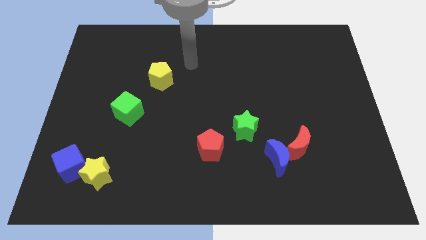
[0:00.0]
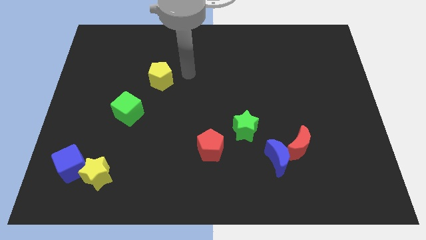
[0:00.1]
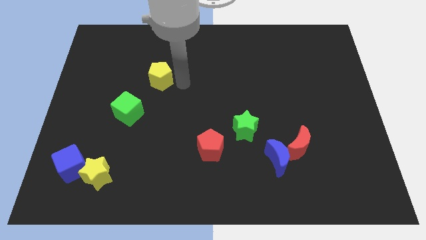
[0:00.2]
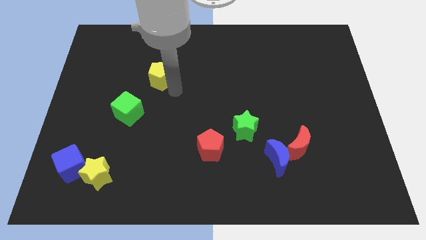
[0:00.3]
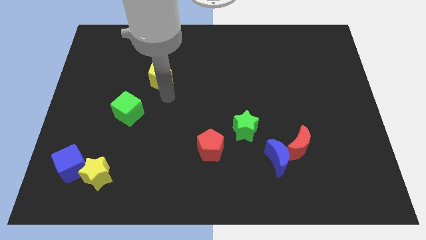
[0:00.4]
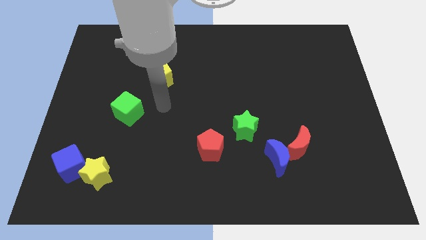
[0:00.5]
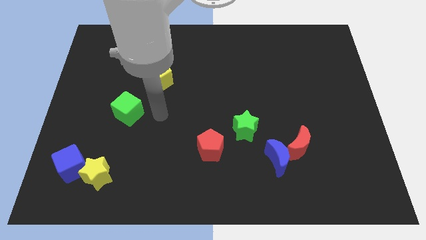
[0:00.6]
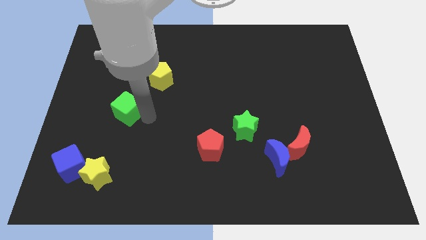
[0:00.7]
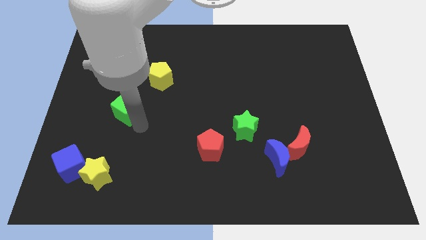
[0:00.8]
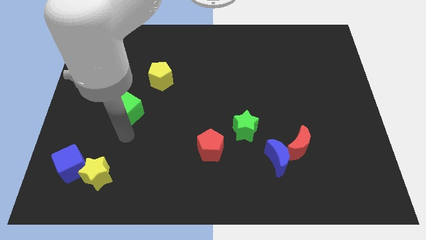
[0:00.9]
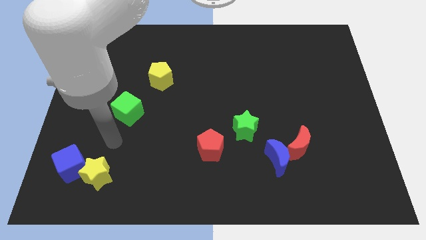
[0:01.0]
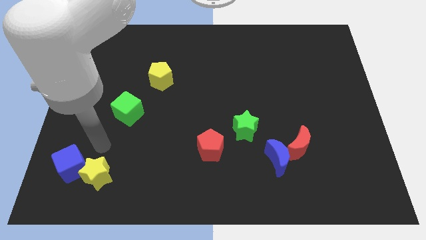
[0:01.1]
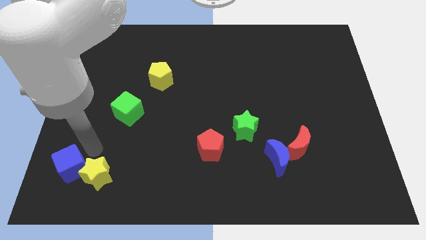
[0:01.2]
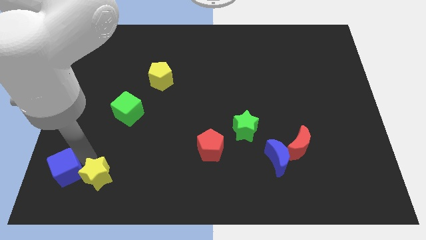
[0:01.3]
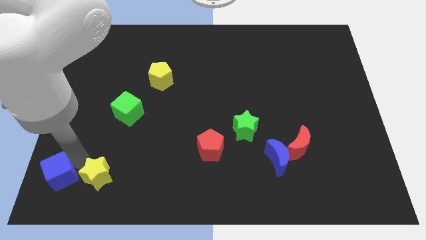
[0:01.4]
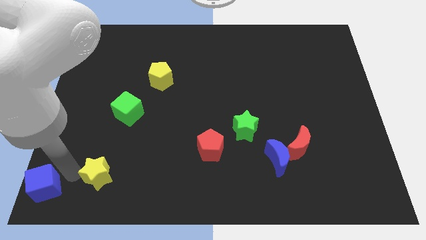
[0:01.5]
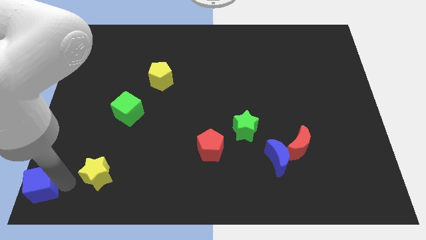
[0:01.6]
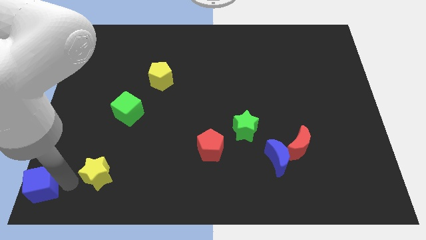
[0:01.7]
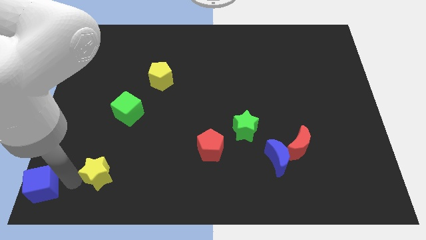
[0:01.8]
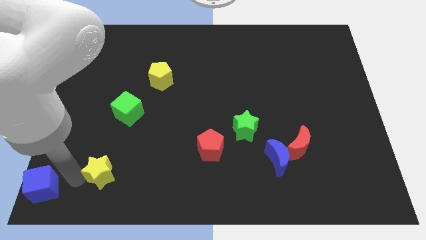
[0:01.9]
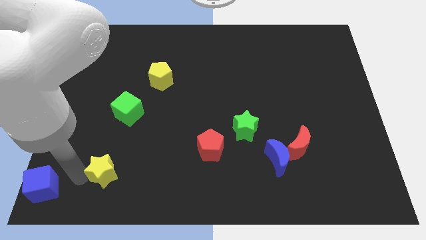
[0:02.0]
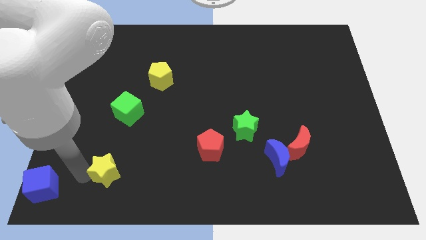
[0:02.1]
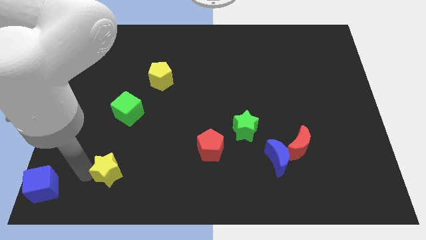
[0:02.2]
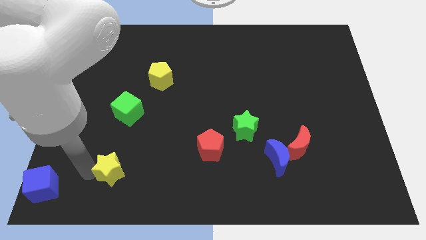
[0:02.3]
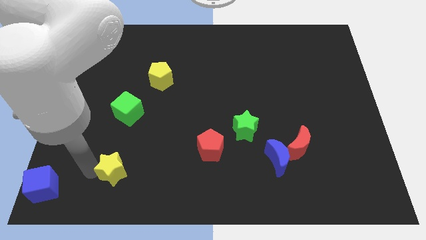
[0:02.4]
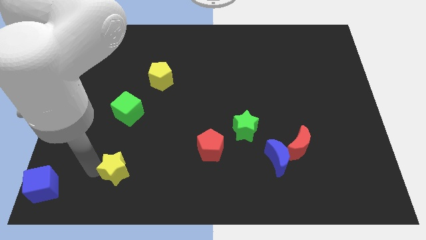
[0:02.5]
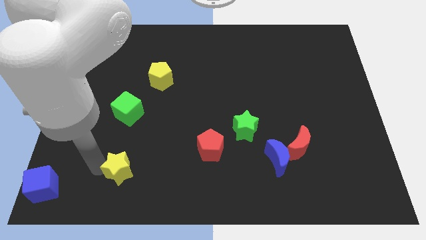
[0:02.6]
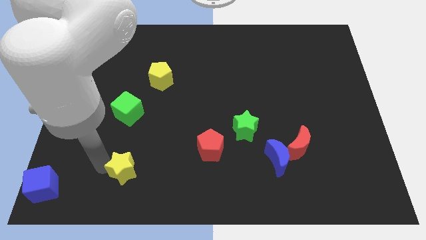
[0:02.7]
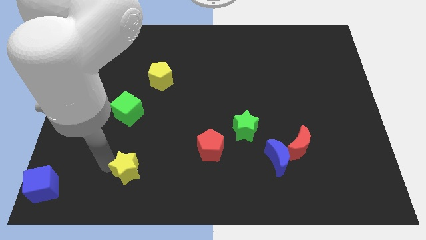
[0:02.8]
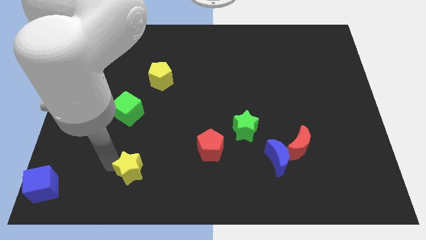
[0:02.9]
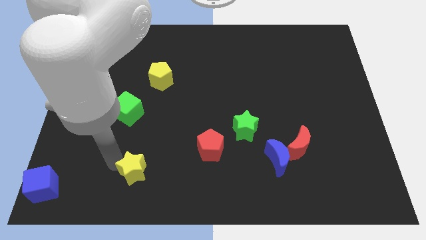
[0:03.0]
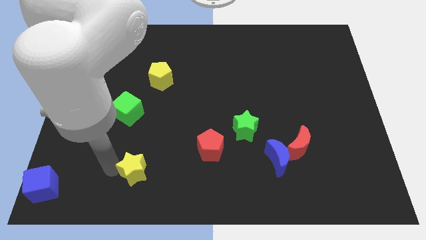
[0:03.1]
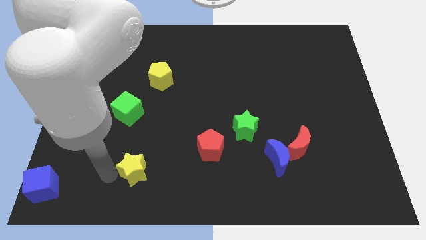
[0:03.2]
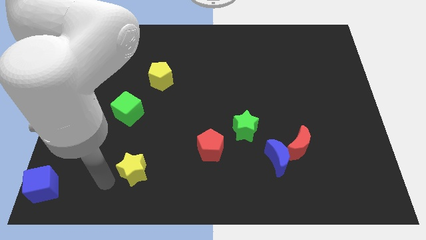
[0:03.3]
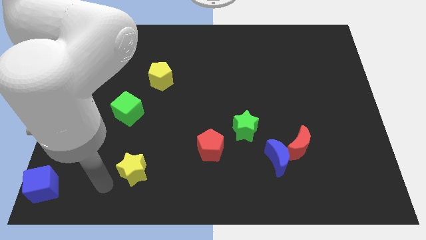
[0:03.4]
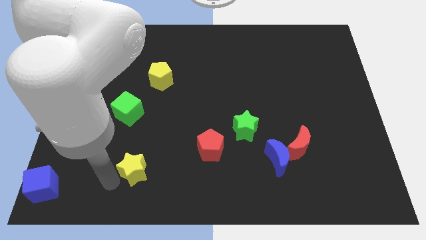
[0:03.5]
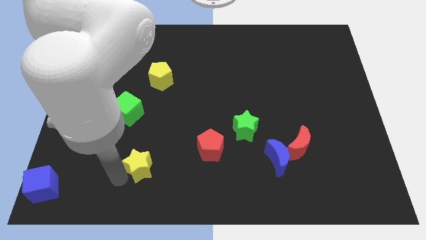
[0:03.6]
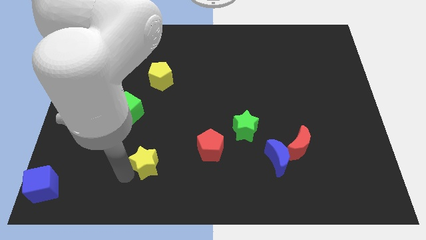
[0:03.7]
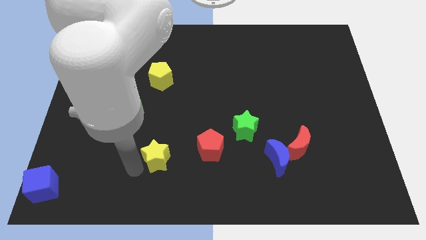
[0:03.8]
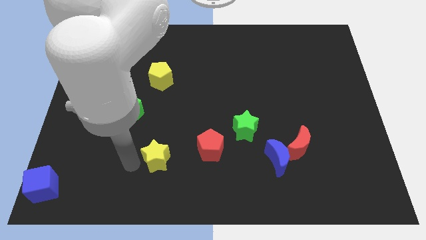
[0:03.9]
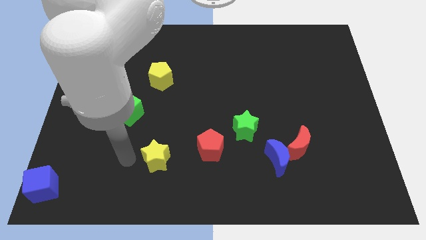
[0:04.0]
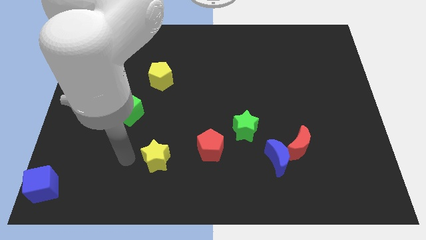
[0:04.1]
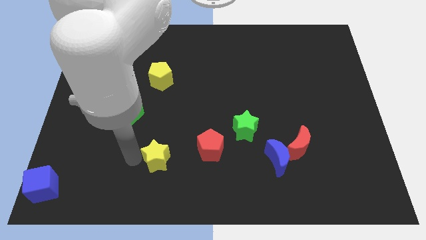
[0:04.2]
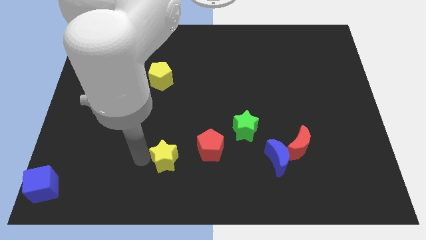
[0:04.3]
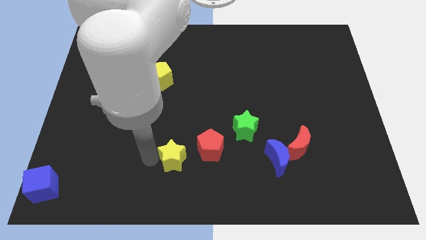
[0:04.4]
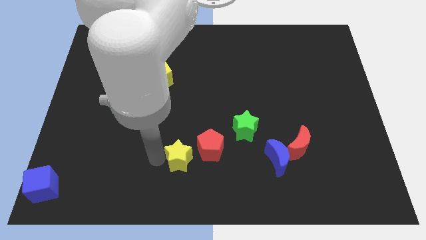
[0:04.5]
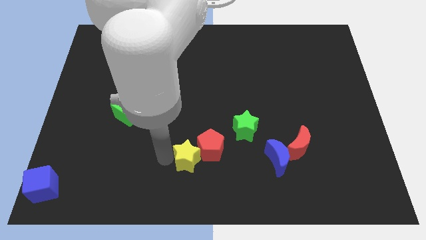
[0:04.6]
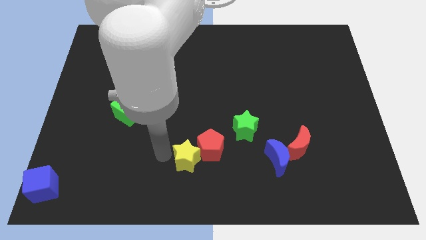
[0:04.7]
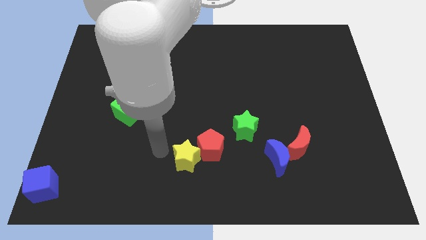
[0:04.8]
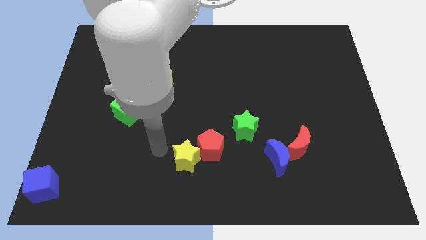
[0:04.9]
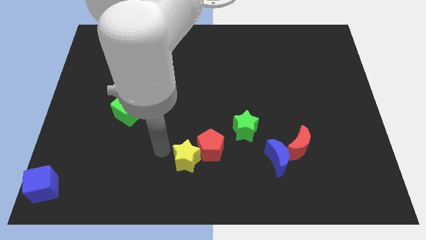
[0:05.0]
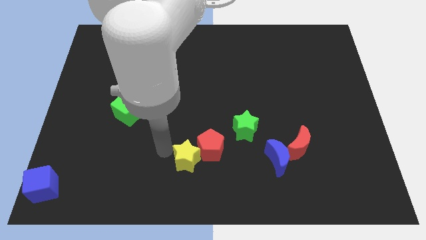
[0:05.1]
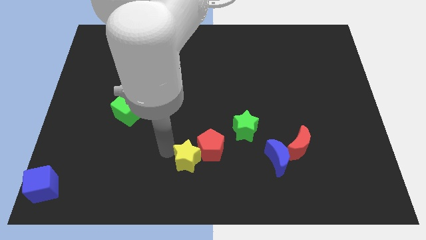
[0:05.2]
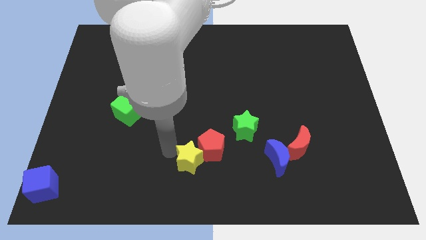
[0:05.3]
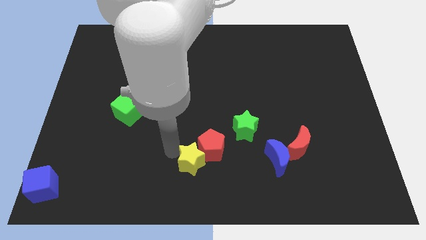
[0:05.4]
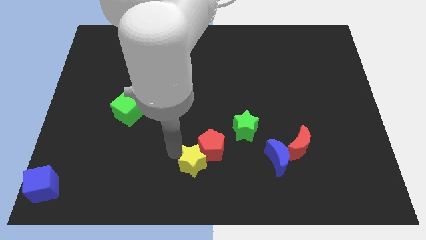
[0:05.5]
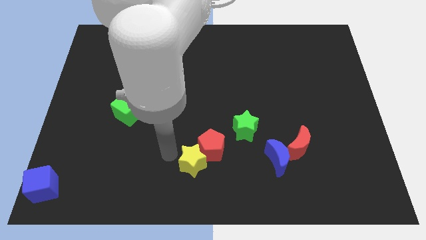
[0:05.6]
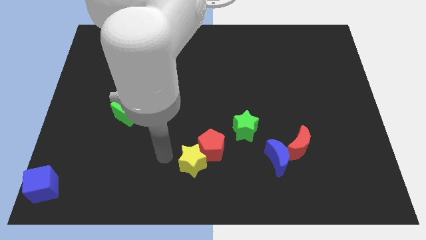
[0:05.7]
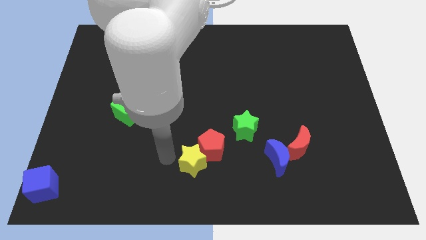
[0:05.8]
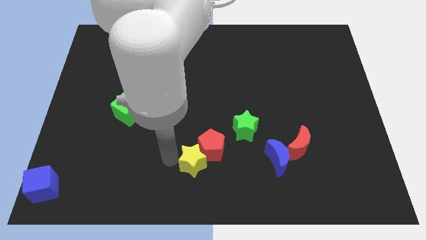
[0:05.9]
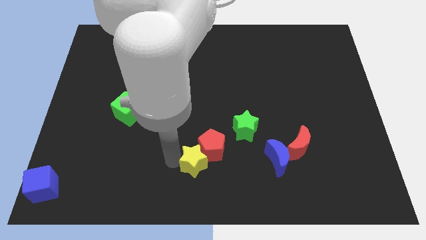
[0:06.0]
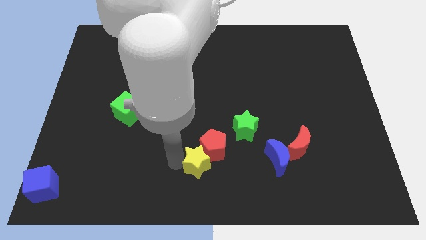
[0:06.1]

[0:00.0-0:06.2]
push the yellow star right

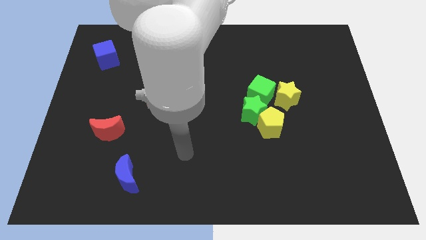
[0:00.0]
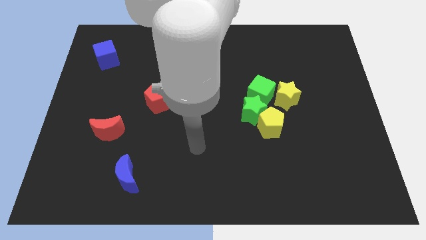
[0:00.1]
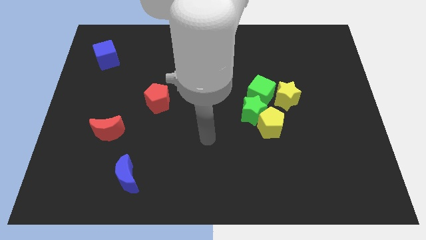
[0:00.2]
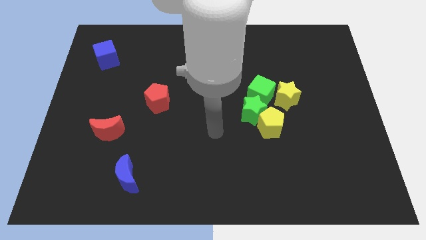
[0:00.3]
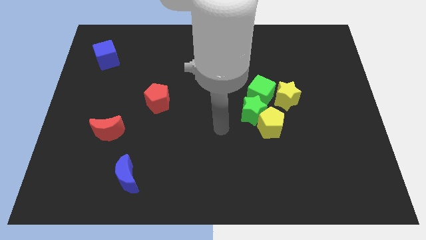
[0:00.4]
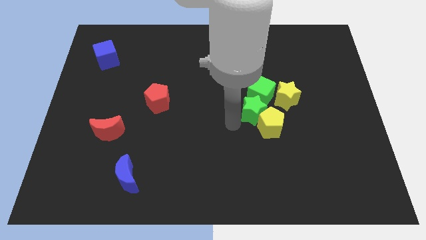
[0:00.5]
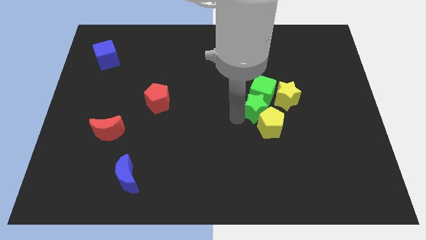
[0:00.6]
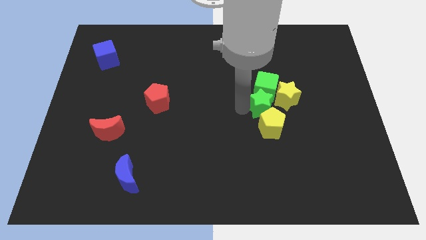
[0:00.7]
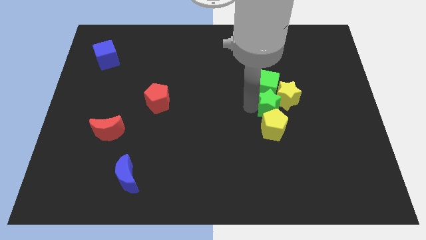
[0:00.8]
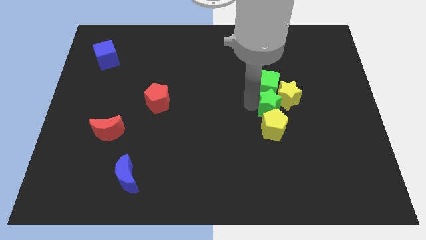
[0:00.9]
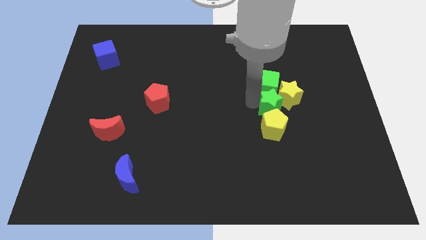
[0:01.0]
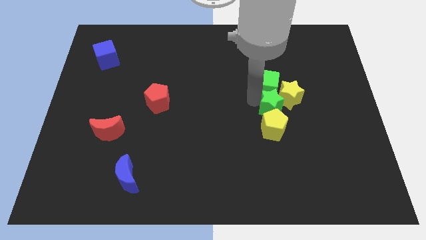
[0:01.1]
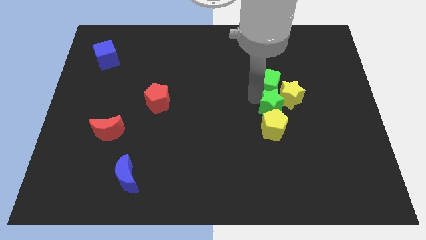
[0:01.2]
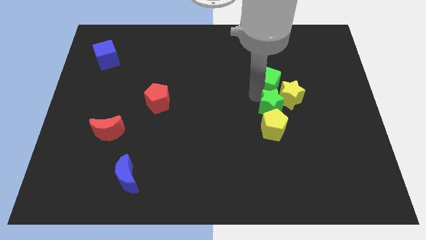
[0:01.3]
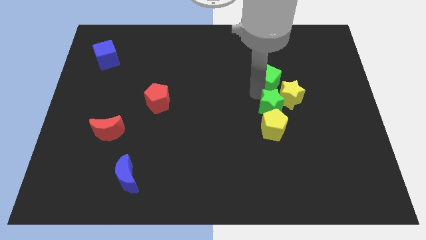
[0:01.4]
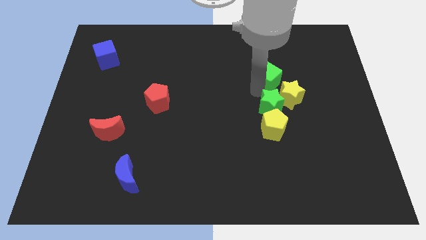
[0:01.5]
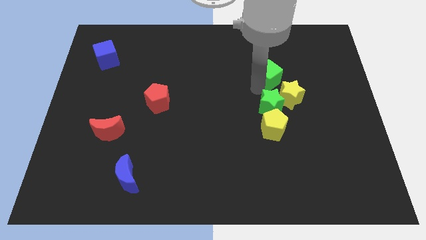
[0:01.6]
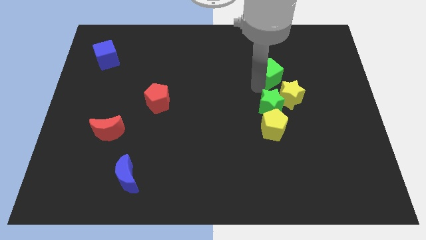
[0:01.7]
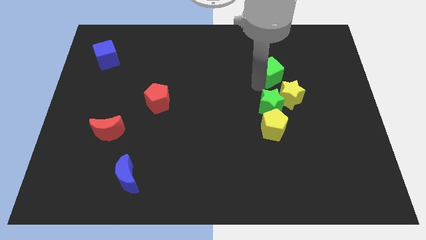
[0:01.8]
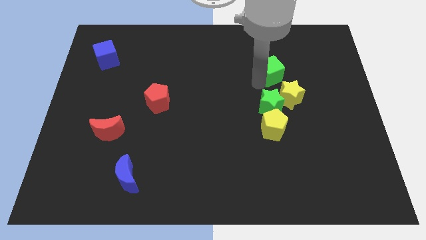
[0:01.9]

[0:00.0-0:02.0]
slide the green cube a little bit upwards and then to the right

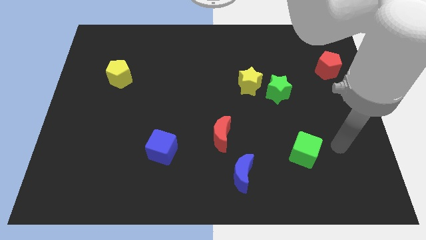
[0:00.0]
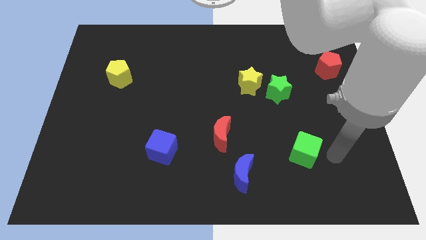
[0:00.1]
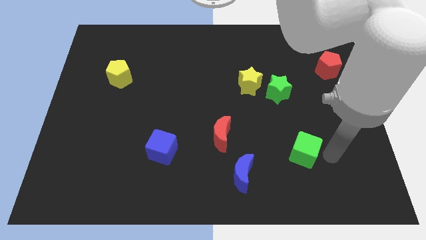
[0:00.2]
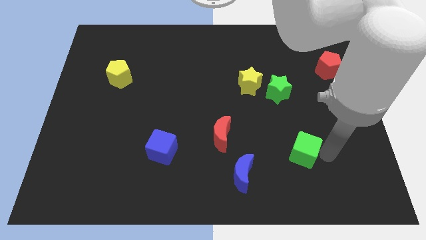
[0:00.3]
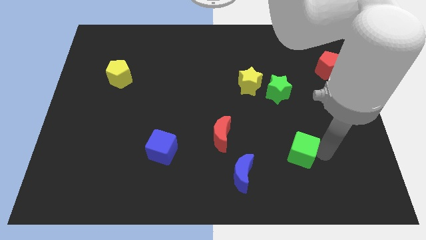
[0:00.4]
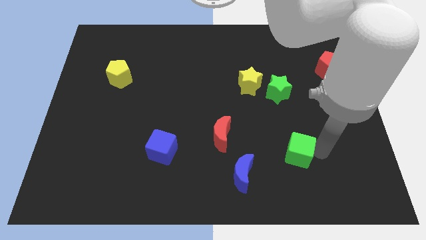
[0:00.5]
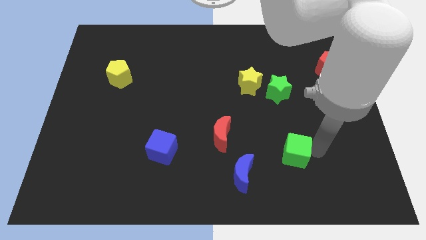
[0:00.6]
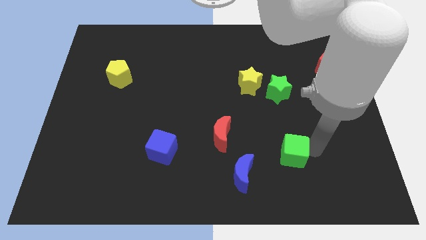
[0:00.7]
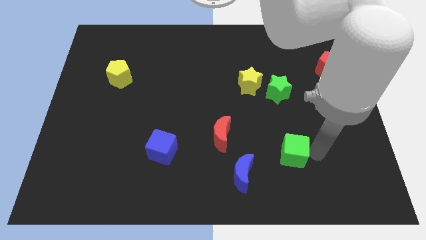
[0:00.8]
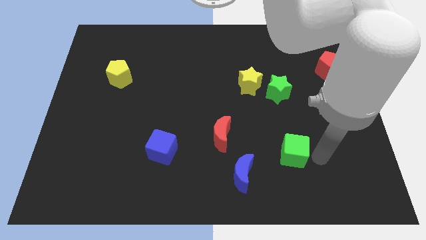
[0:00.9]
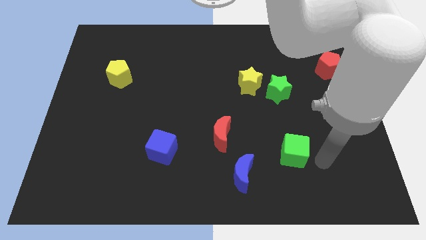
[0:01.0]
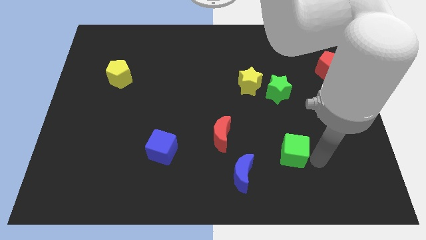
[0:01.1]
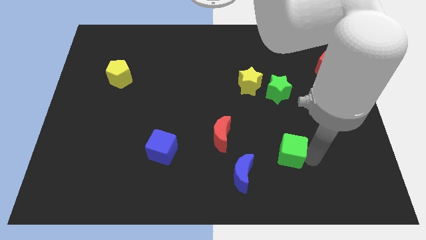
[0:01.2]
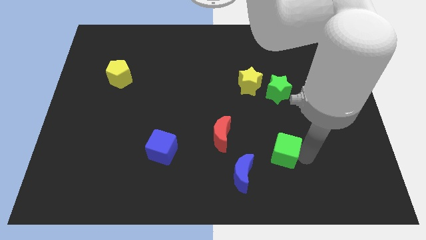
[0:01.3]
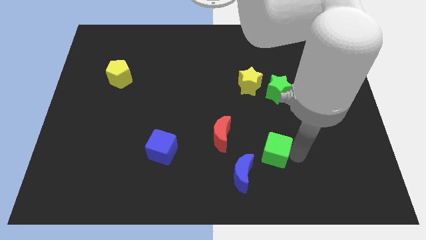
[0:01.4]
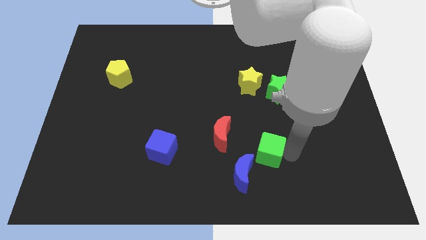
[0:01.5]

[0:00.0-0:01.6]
slightly push the green cube left
